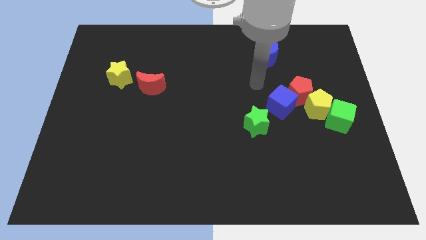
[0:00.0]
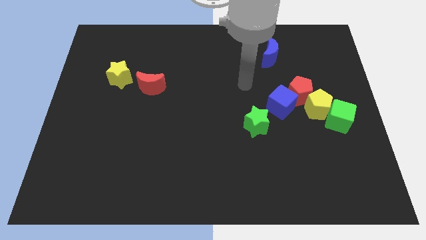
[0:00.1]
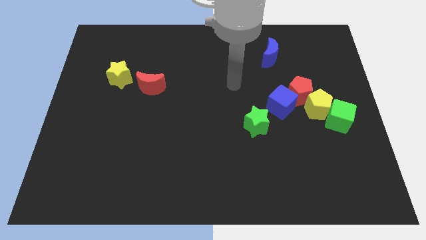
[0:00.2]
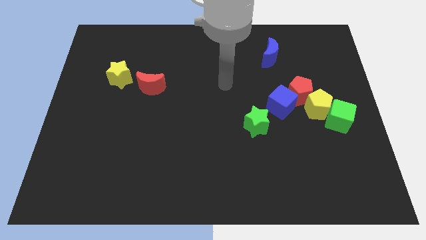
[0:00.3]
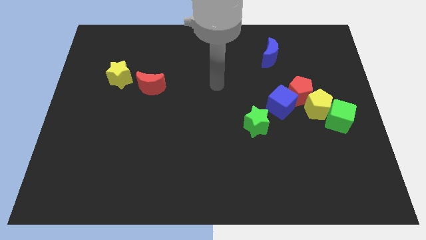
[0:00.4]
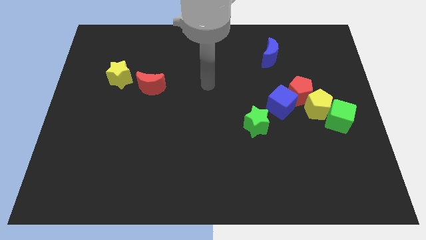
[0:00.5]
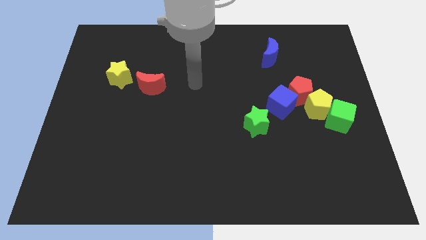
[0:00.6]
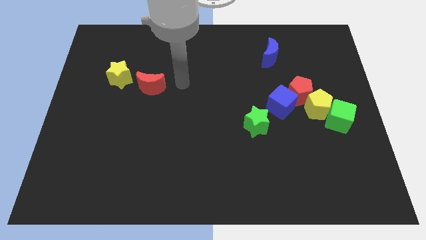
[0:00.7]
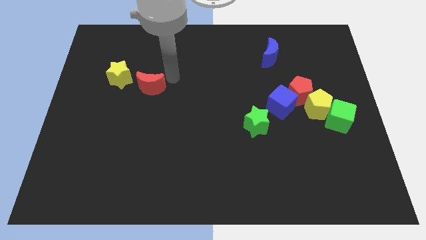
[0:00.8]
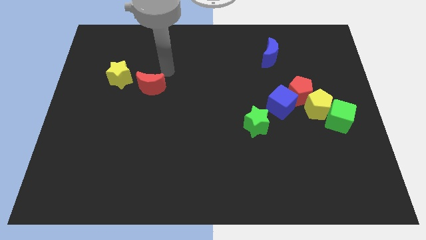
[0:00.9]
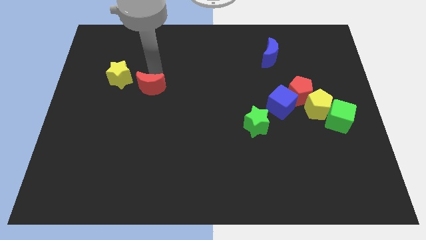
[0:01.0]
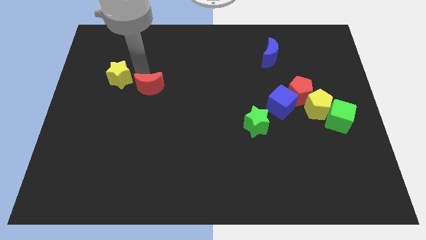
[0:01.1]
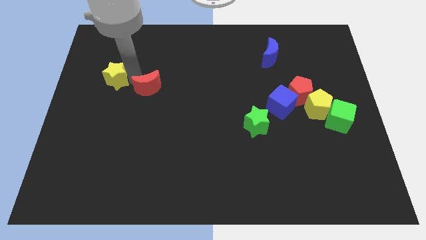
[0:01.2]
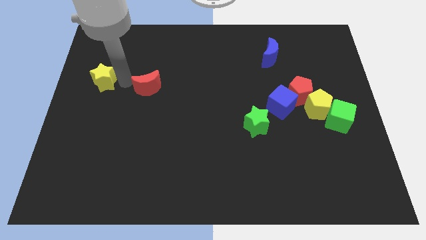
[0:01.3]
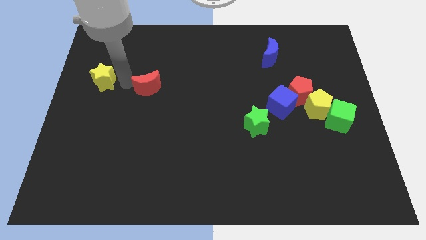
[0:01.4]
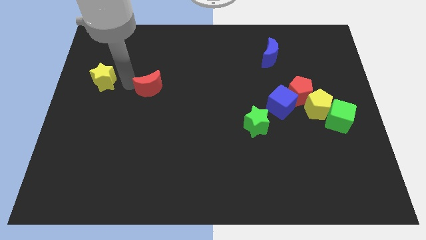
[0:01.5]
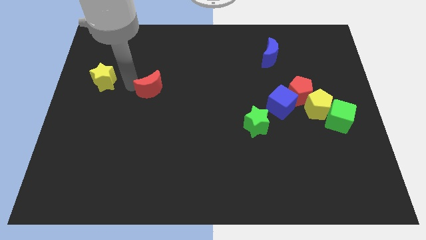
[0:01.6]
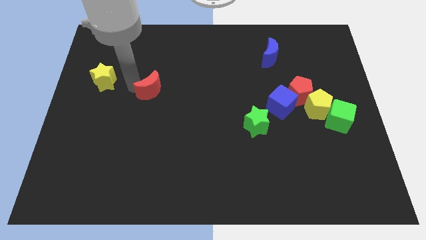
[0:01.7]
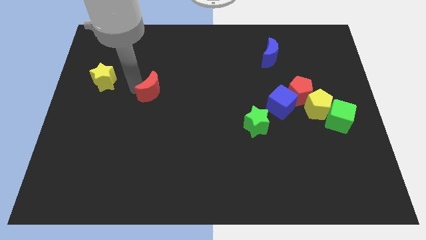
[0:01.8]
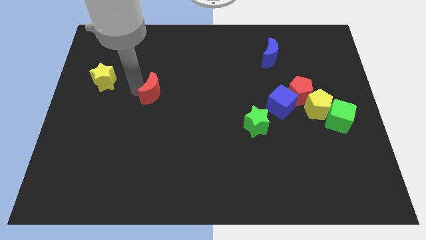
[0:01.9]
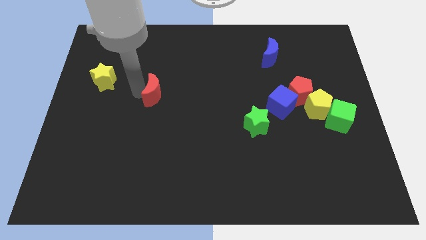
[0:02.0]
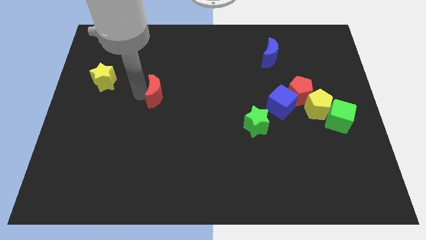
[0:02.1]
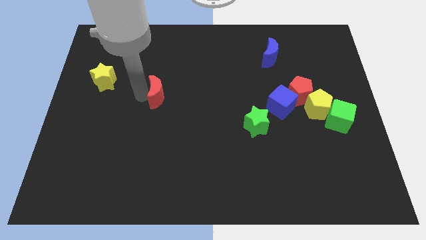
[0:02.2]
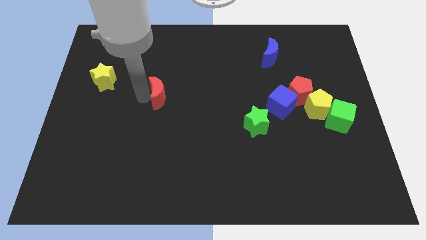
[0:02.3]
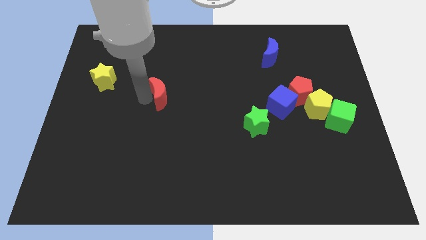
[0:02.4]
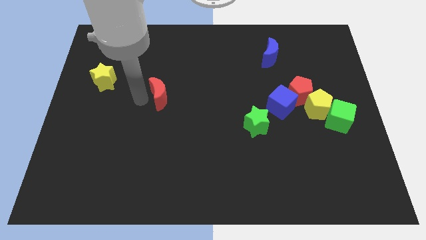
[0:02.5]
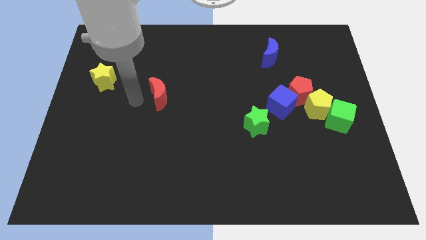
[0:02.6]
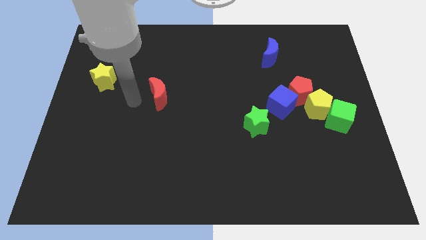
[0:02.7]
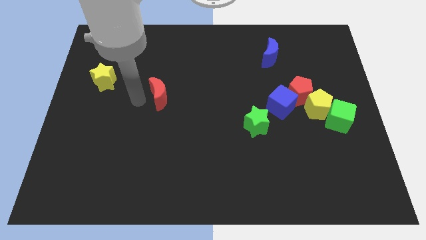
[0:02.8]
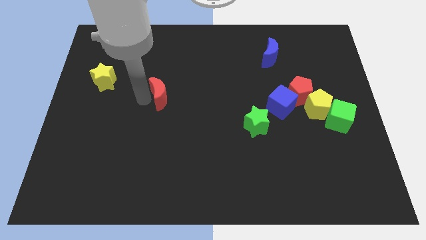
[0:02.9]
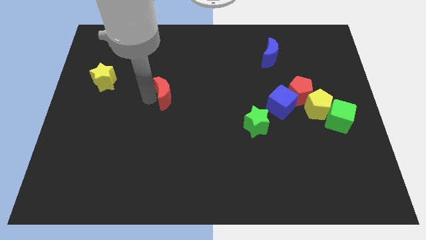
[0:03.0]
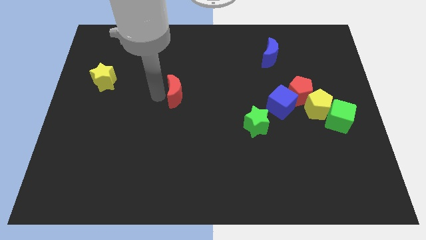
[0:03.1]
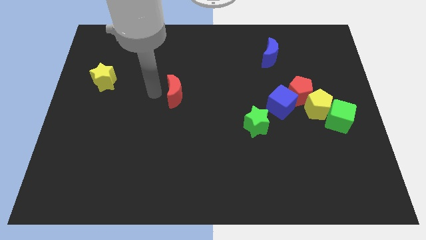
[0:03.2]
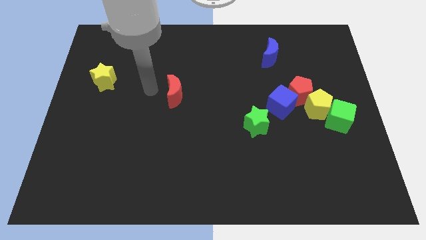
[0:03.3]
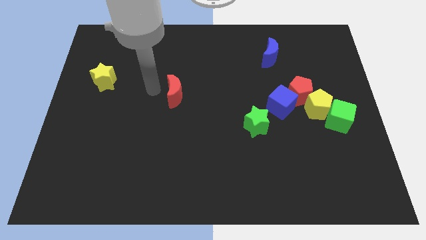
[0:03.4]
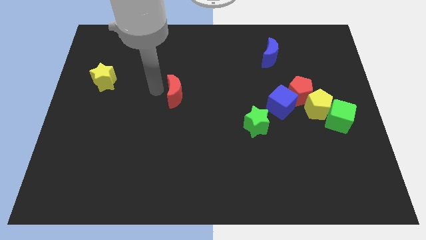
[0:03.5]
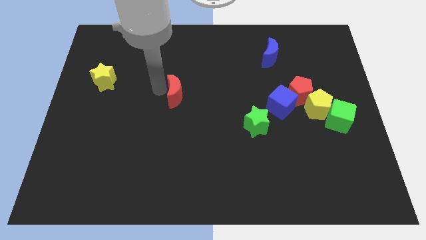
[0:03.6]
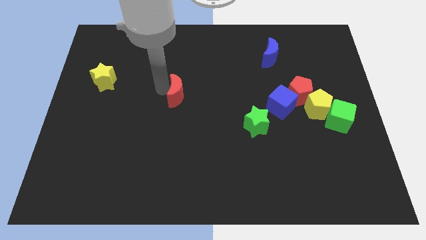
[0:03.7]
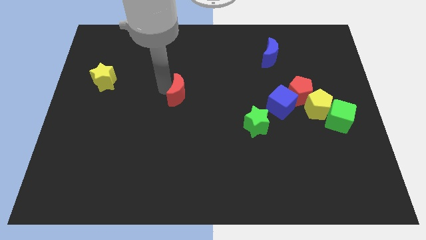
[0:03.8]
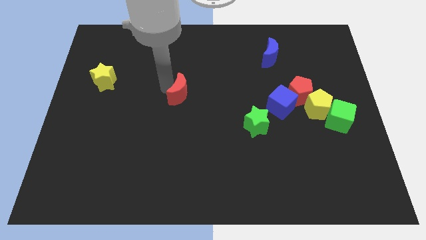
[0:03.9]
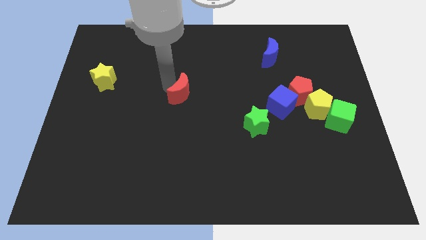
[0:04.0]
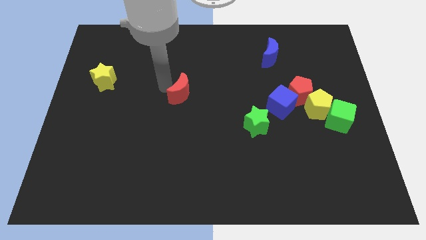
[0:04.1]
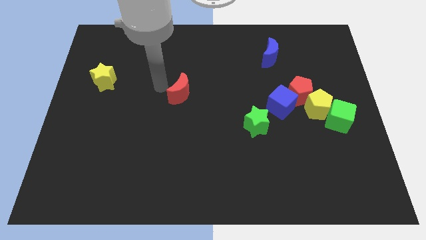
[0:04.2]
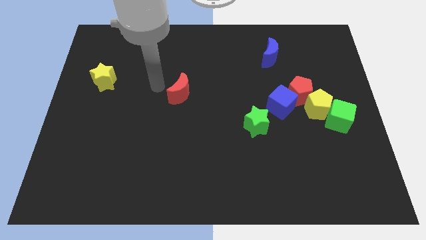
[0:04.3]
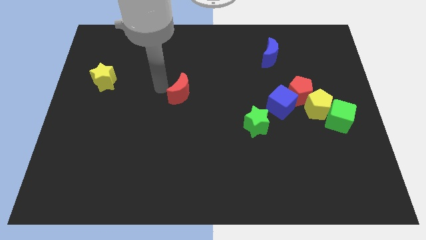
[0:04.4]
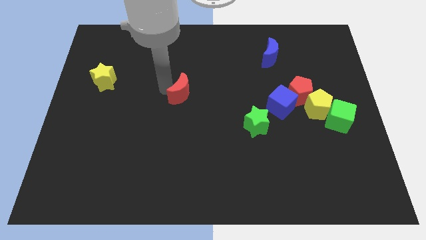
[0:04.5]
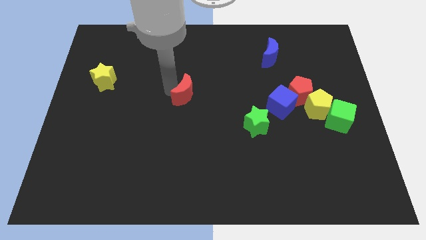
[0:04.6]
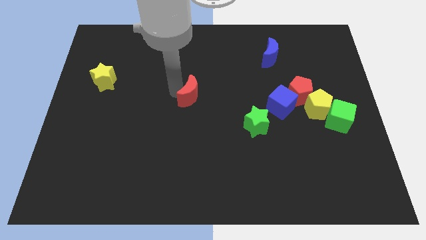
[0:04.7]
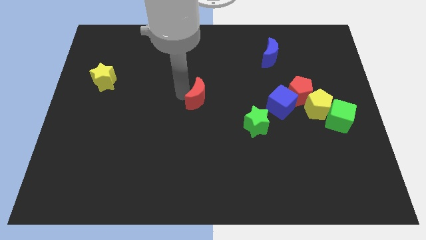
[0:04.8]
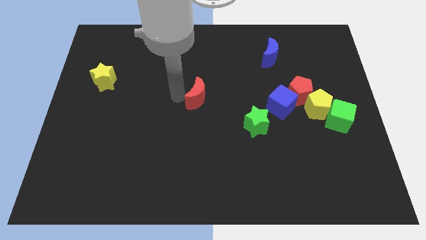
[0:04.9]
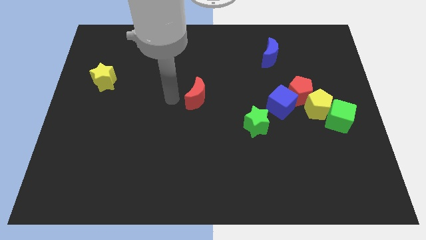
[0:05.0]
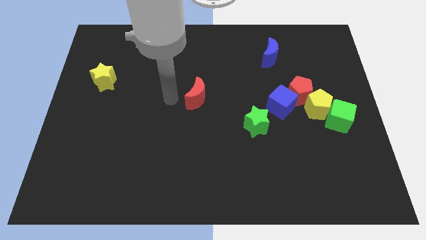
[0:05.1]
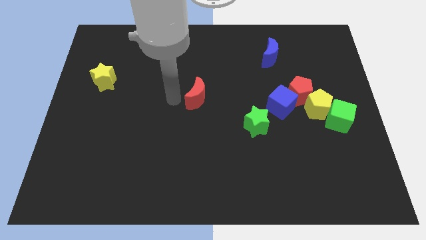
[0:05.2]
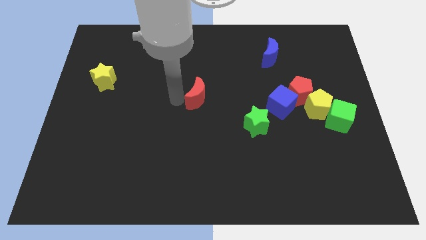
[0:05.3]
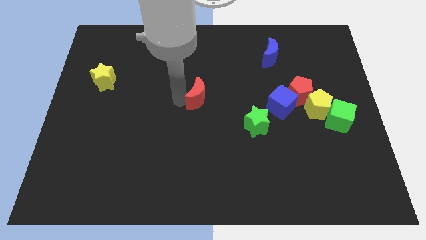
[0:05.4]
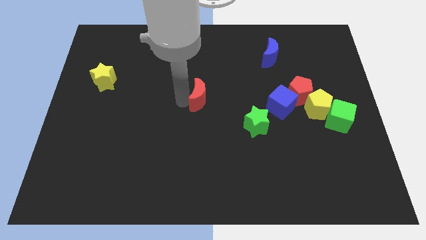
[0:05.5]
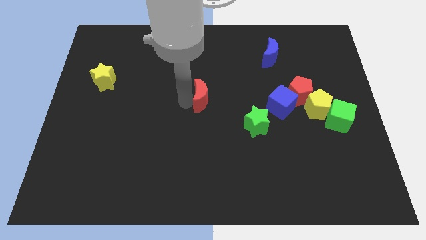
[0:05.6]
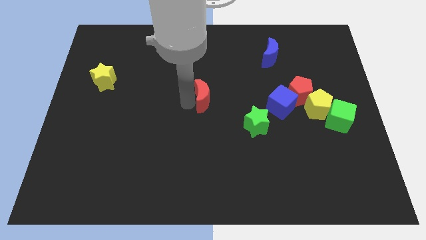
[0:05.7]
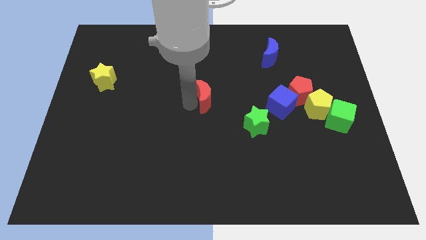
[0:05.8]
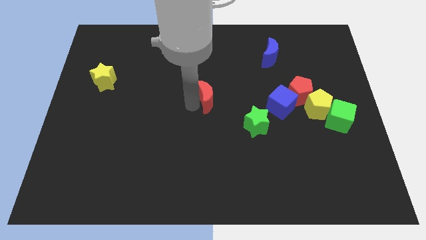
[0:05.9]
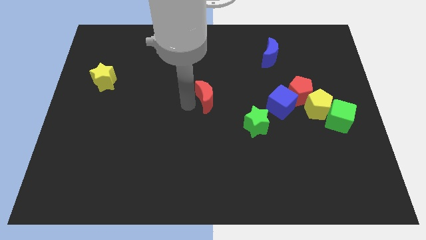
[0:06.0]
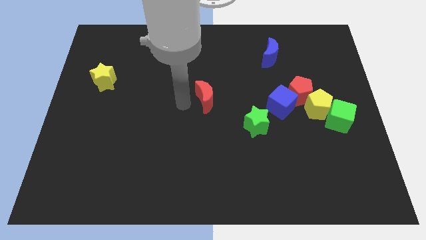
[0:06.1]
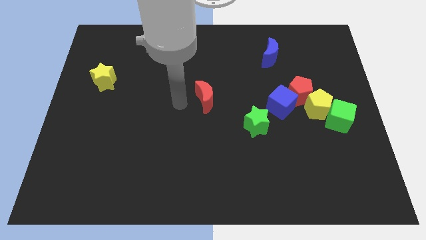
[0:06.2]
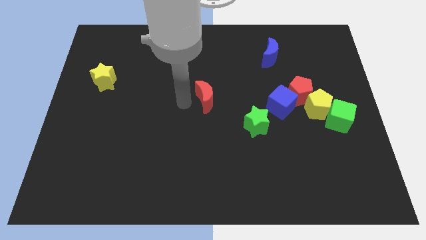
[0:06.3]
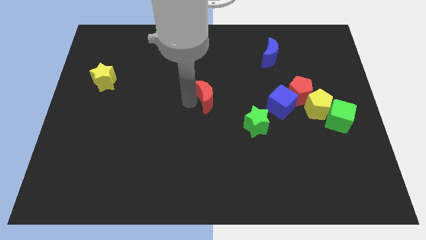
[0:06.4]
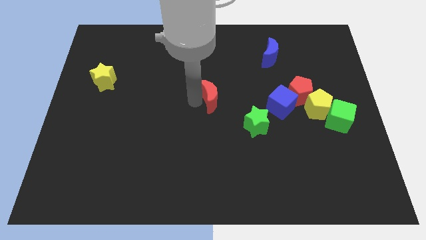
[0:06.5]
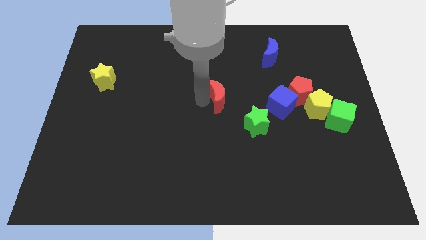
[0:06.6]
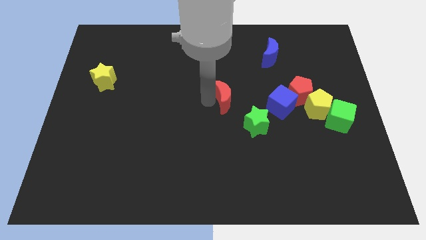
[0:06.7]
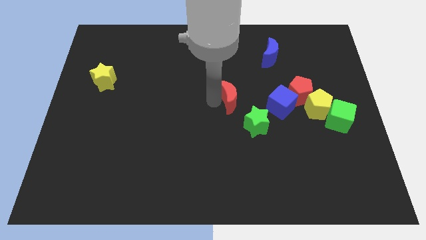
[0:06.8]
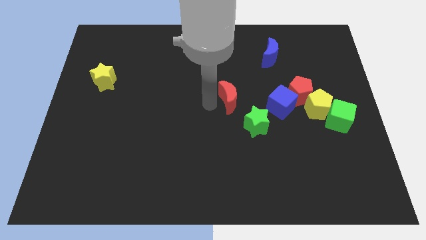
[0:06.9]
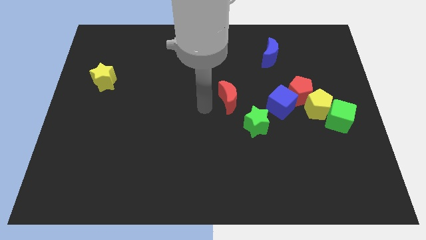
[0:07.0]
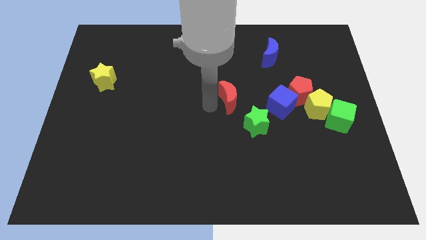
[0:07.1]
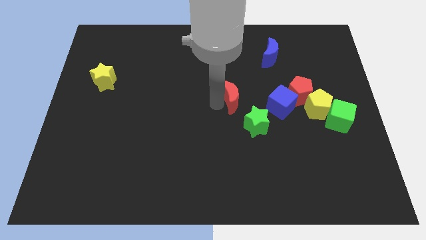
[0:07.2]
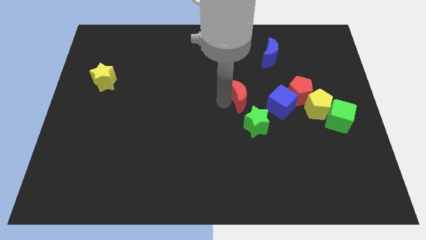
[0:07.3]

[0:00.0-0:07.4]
move the red moon to the right

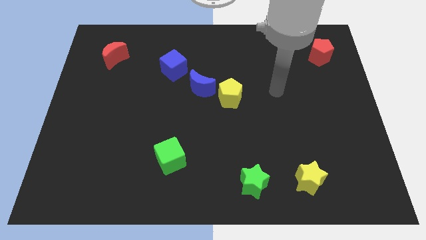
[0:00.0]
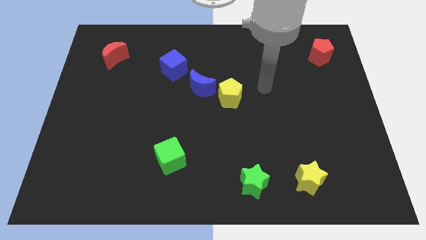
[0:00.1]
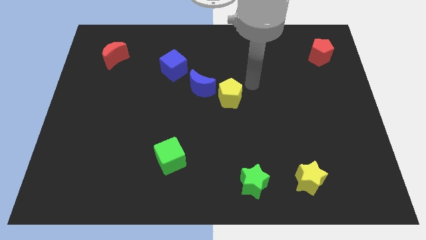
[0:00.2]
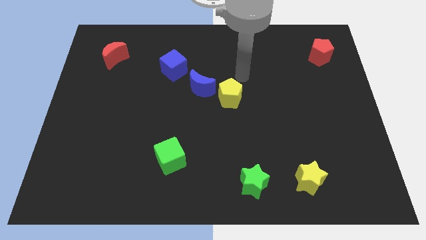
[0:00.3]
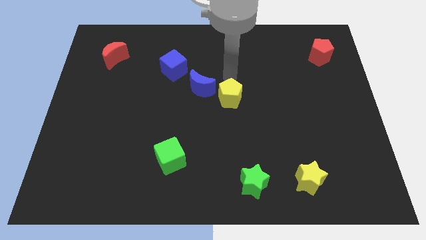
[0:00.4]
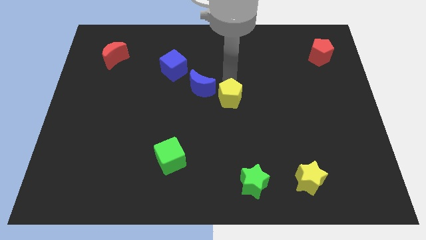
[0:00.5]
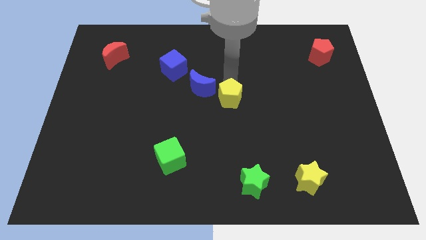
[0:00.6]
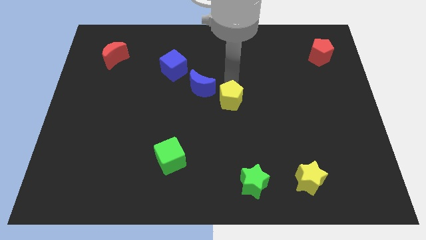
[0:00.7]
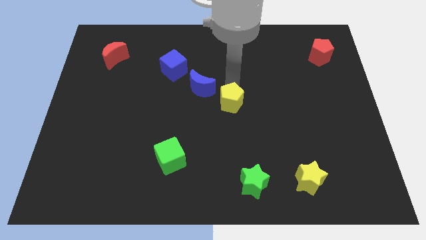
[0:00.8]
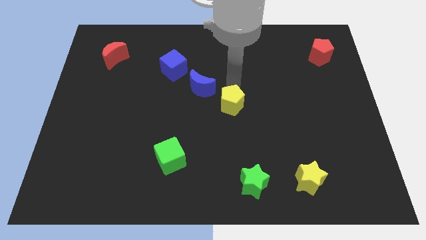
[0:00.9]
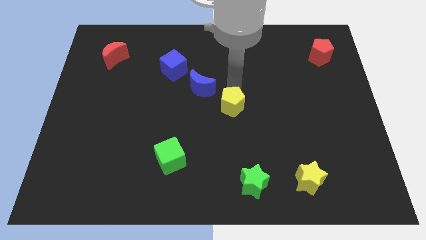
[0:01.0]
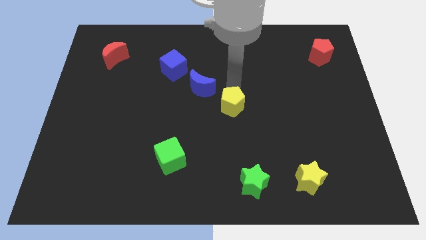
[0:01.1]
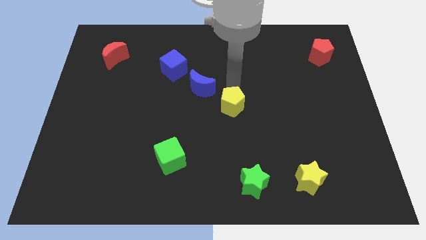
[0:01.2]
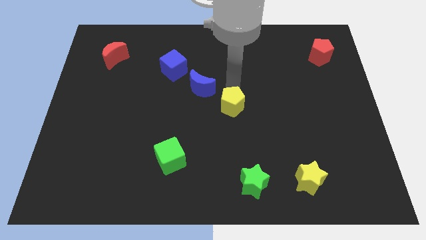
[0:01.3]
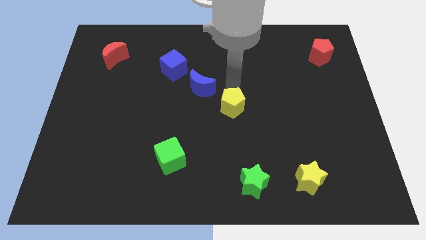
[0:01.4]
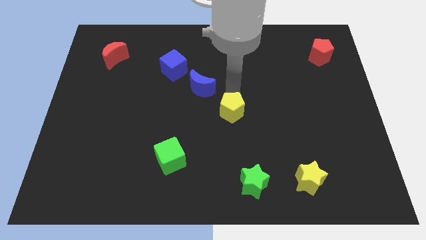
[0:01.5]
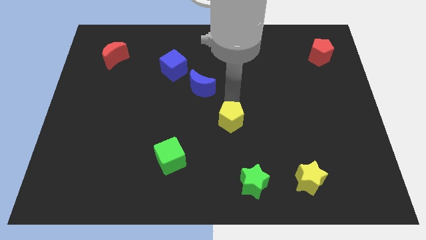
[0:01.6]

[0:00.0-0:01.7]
slightly move the yellow pentagon down
